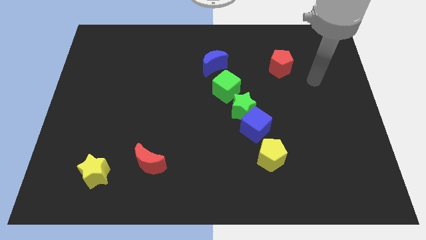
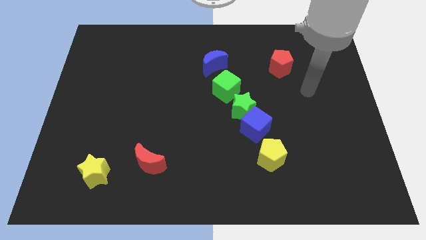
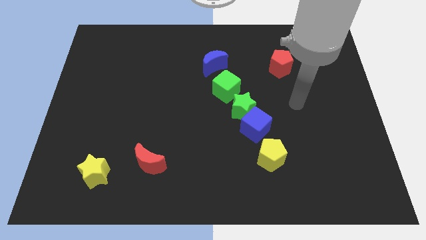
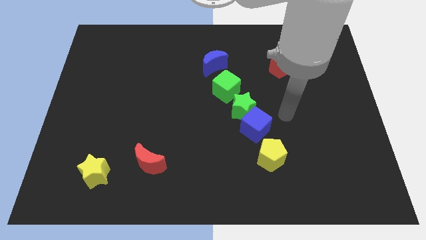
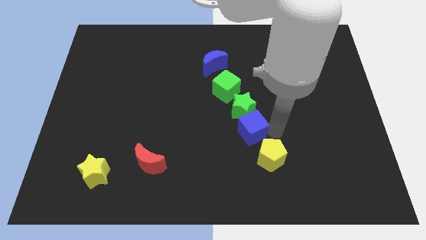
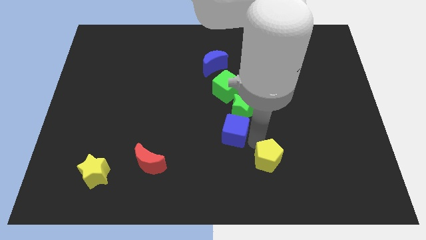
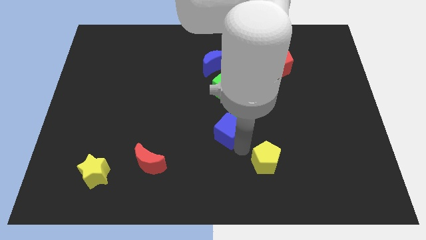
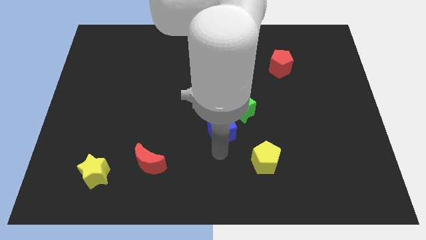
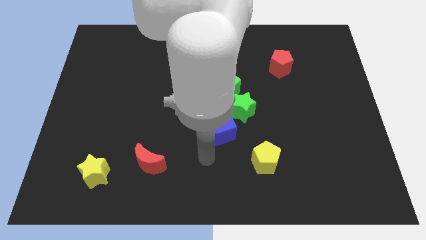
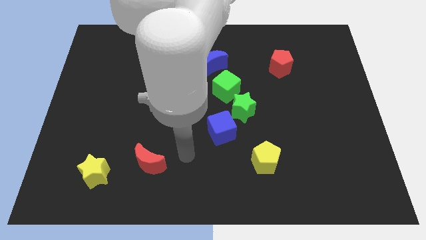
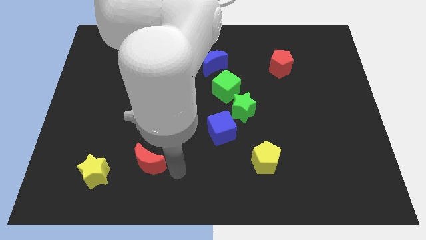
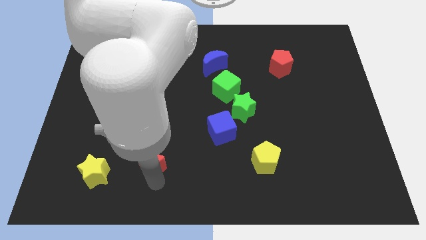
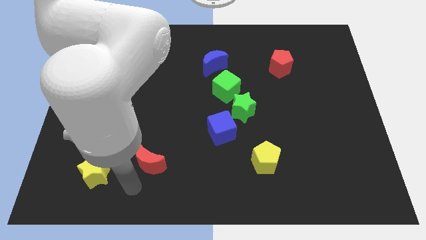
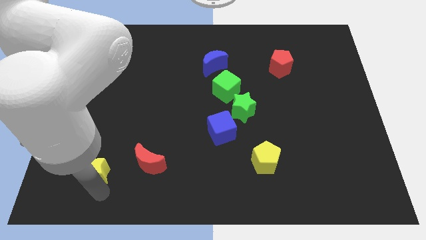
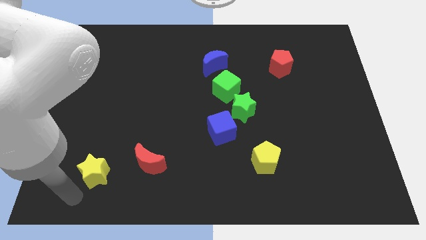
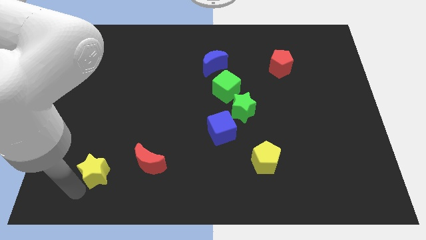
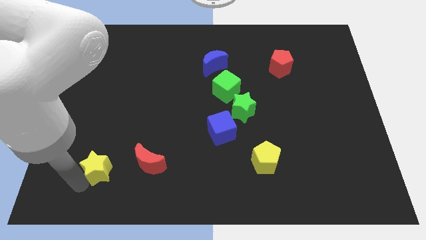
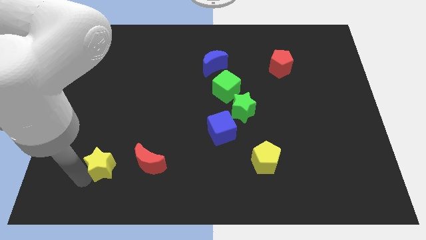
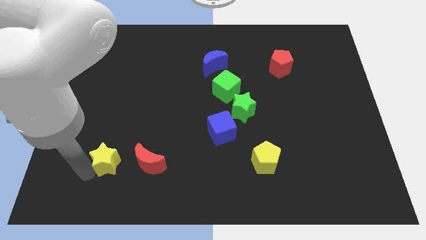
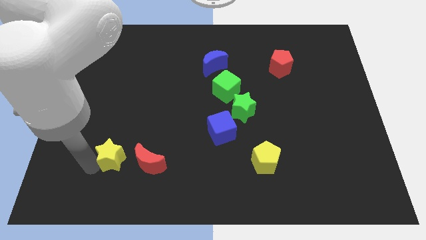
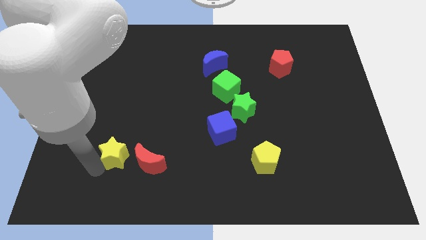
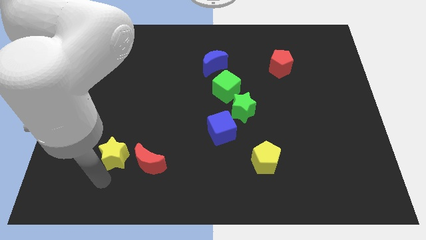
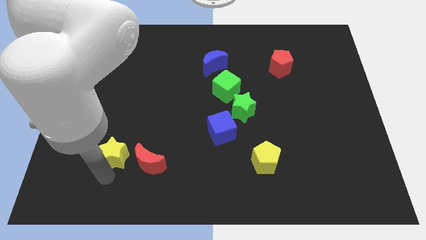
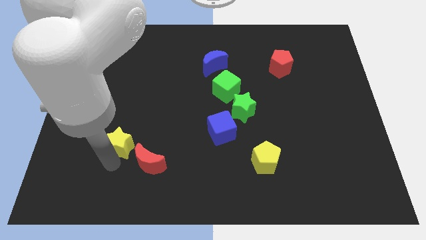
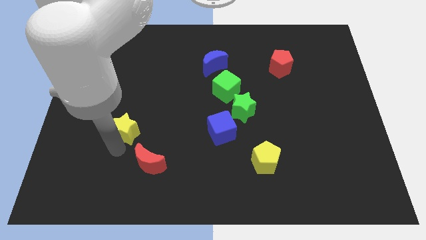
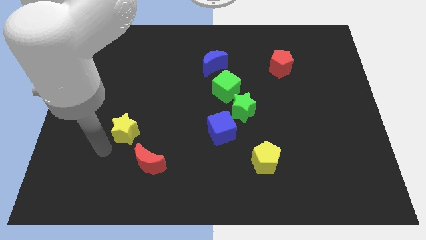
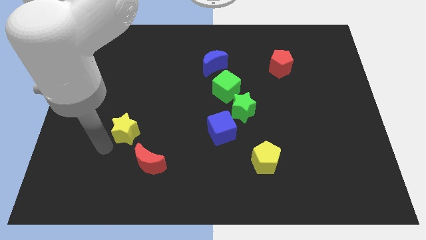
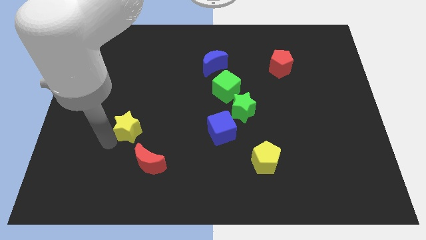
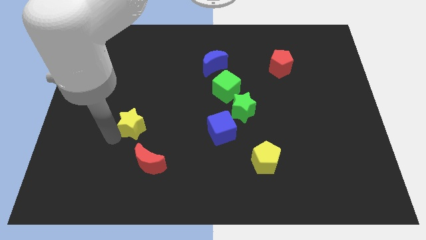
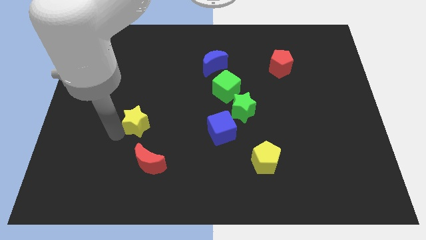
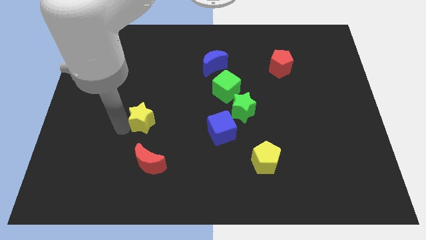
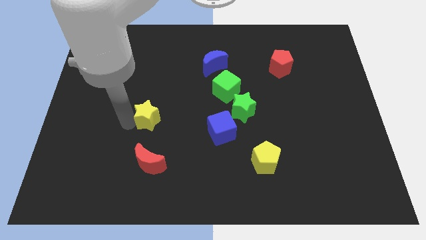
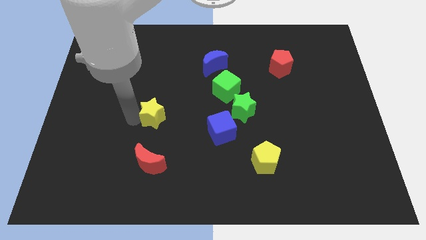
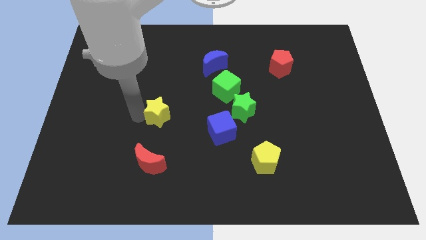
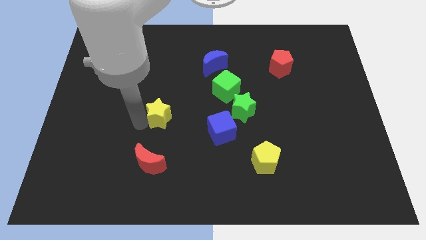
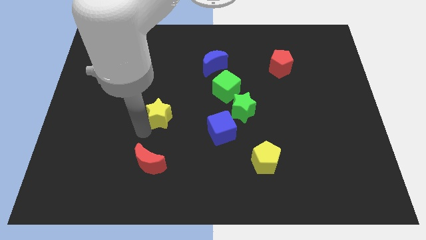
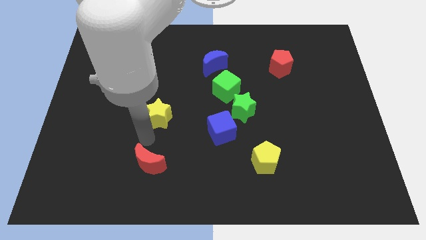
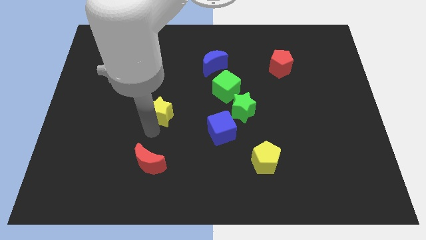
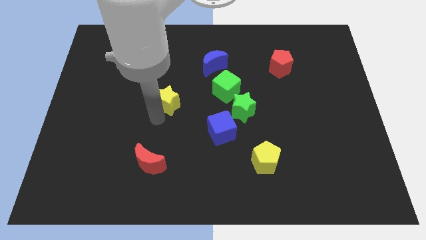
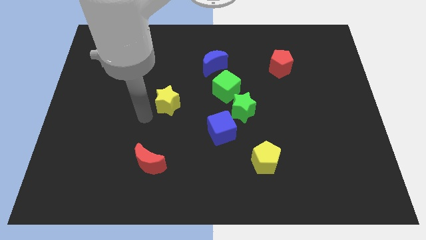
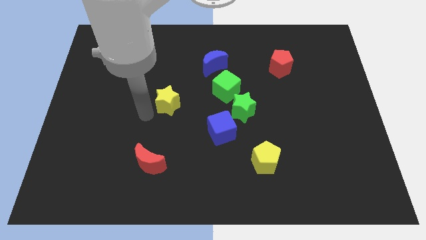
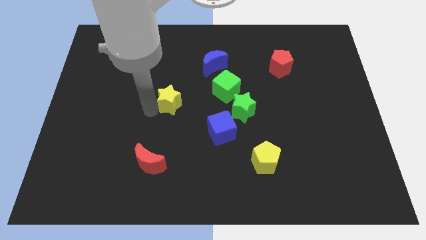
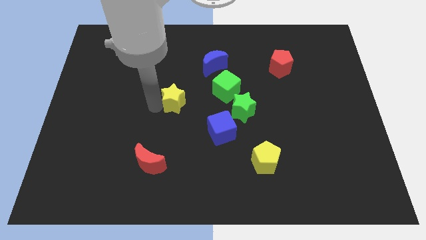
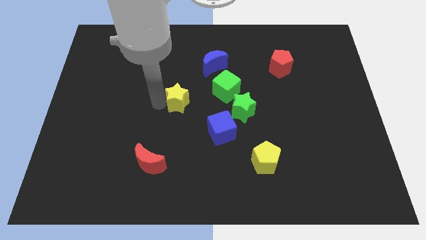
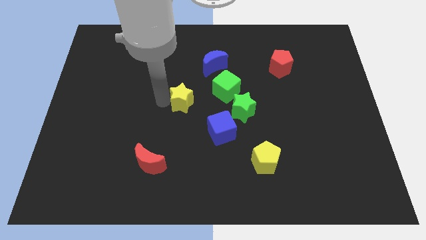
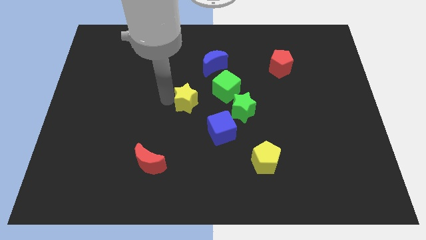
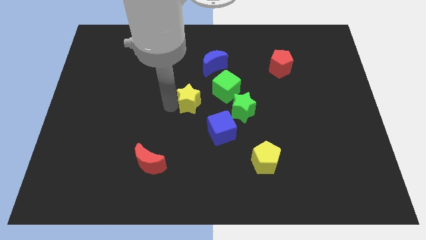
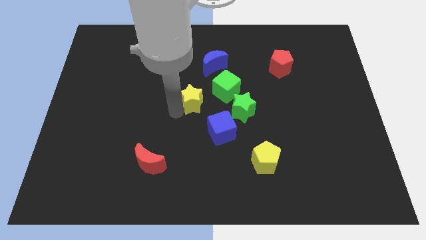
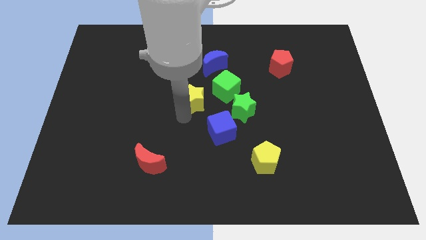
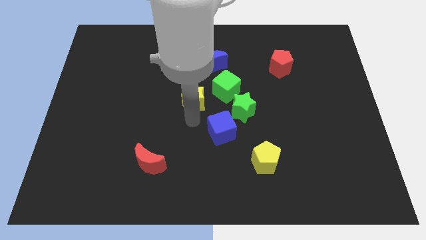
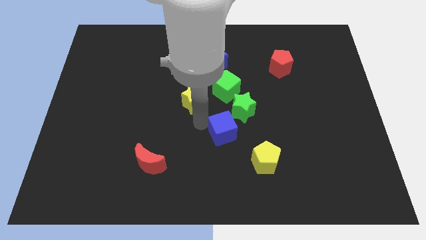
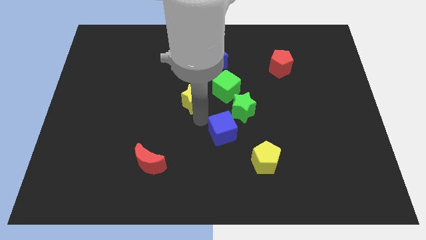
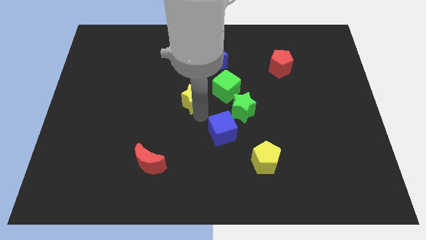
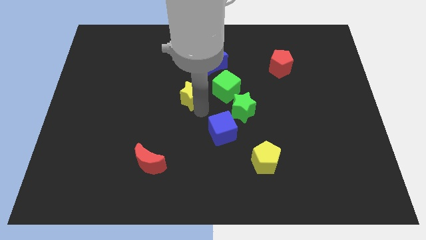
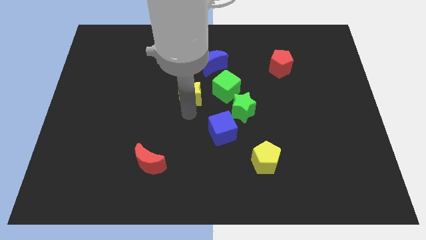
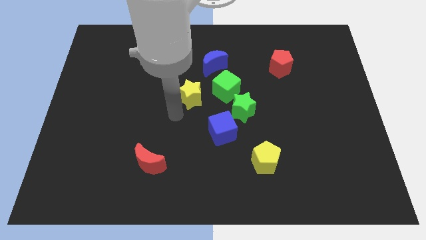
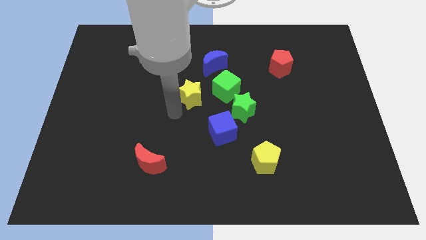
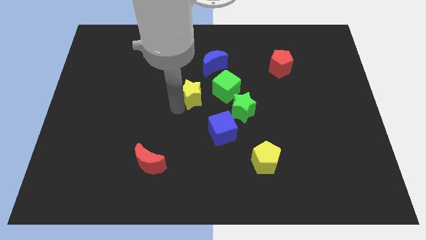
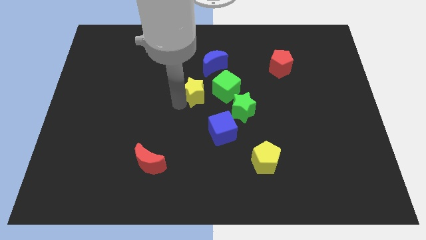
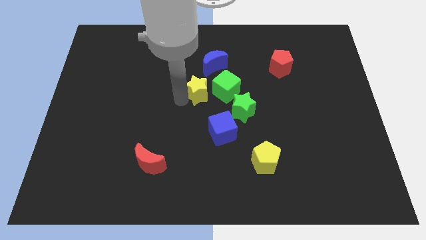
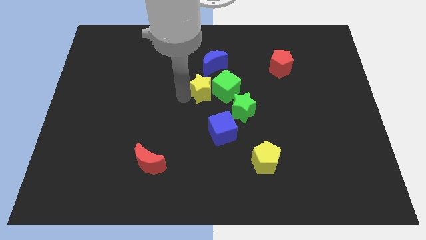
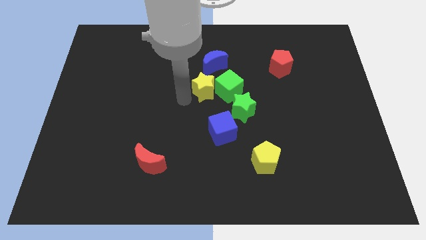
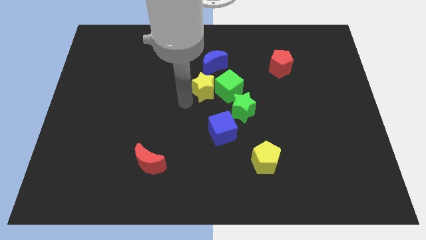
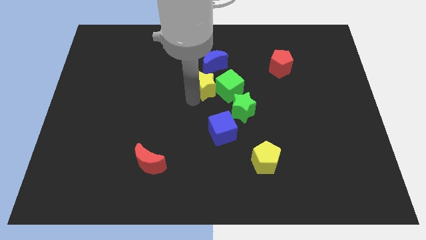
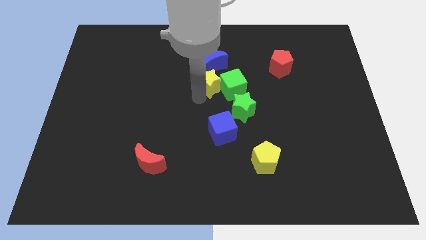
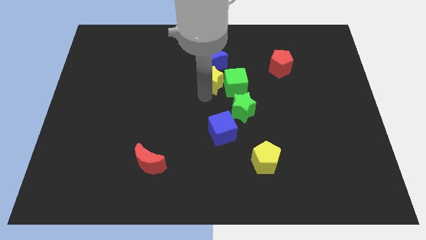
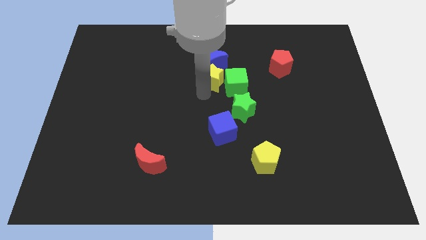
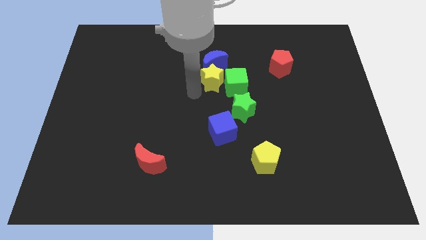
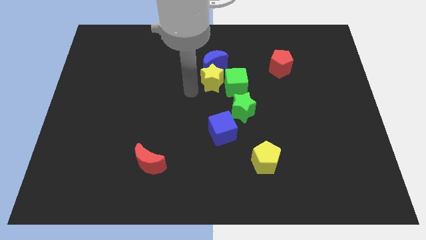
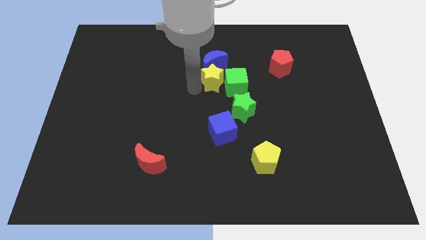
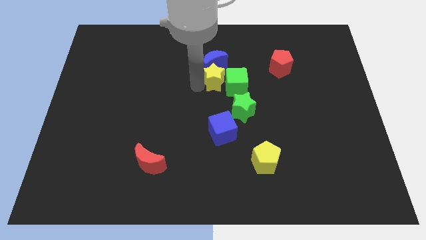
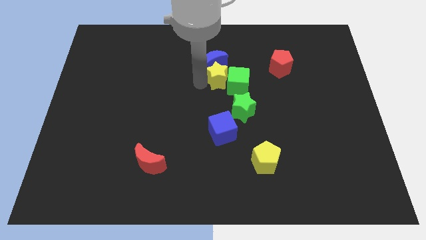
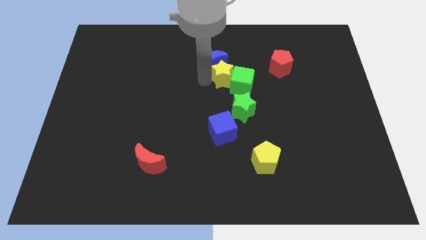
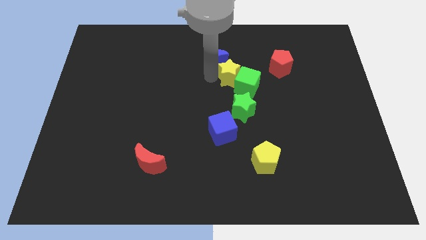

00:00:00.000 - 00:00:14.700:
push the yellow star to the right of the blue moon
